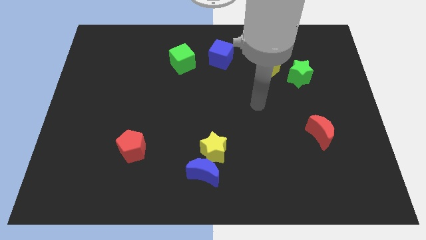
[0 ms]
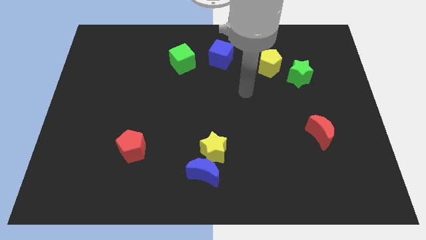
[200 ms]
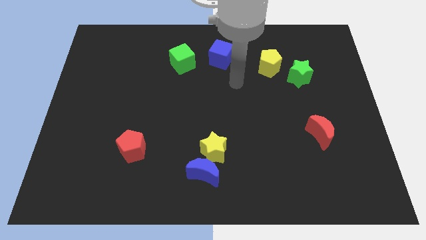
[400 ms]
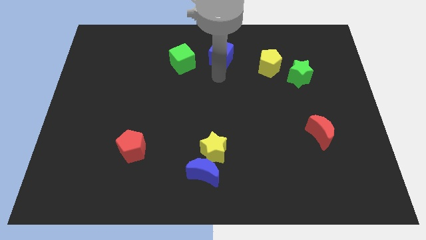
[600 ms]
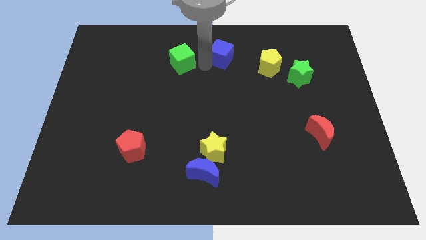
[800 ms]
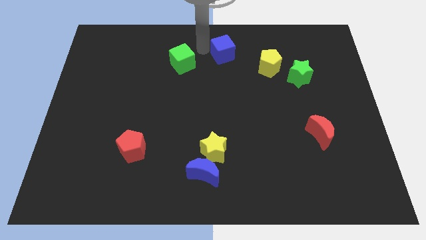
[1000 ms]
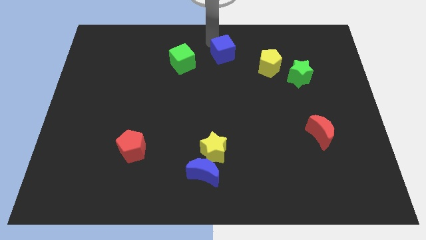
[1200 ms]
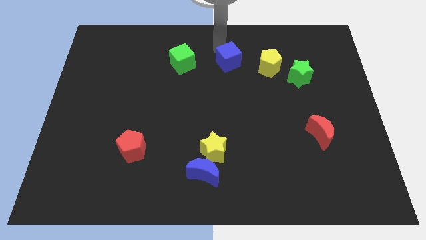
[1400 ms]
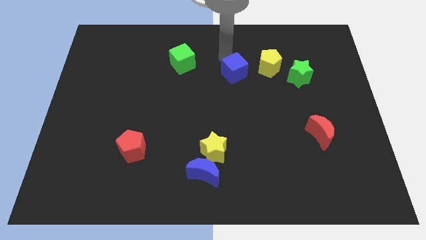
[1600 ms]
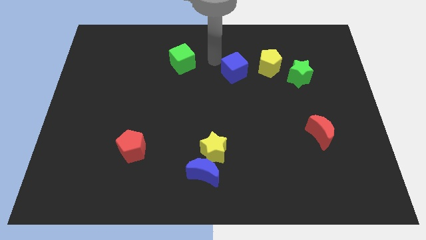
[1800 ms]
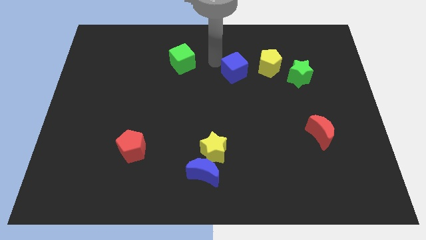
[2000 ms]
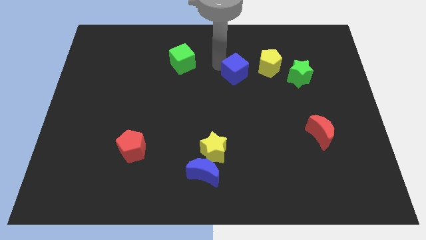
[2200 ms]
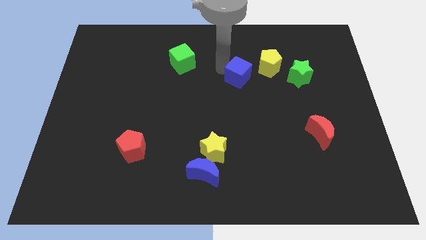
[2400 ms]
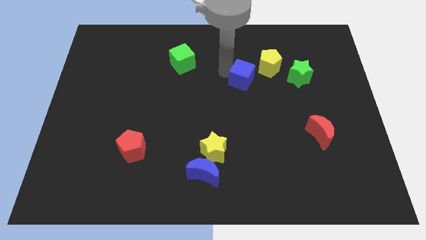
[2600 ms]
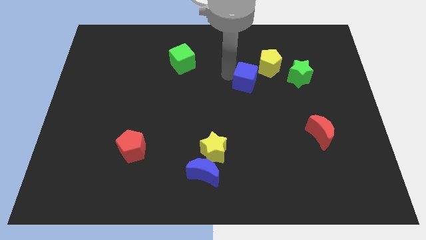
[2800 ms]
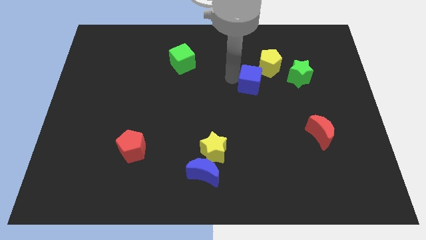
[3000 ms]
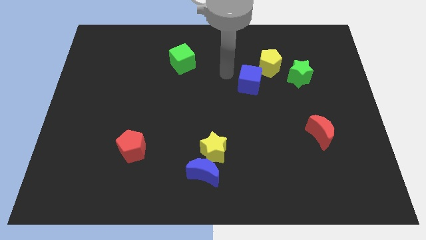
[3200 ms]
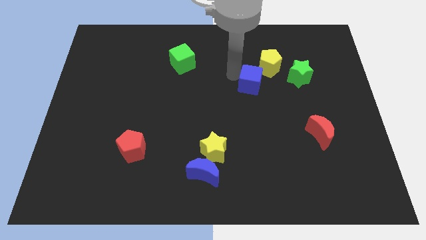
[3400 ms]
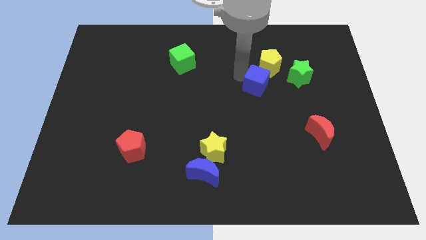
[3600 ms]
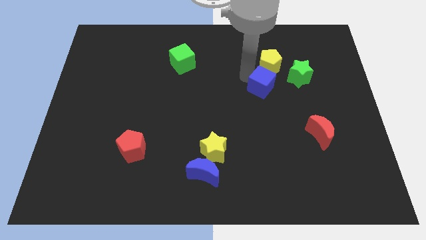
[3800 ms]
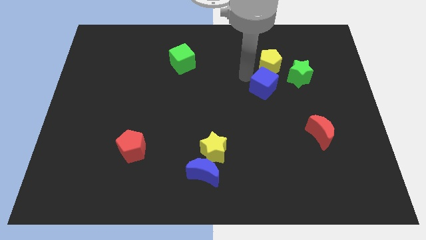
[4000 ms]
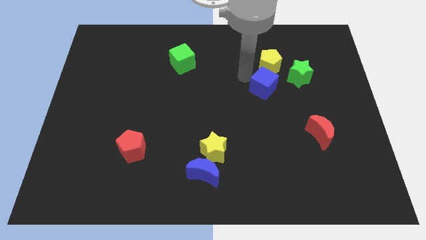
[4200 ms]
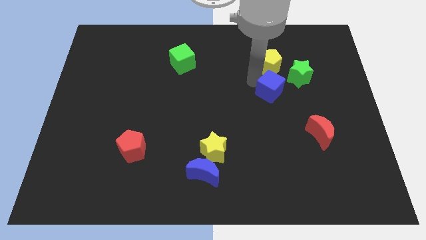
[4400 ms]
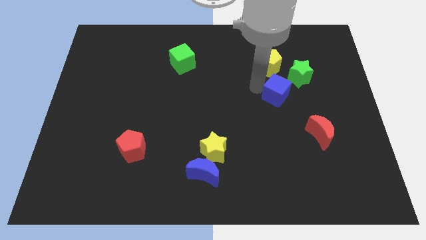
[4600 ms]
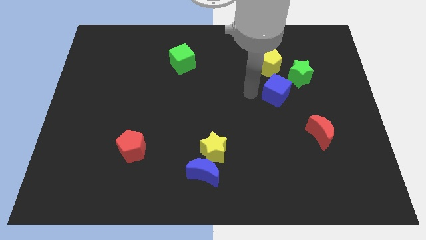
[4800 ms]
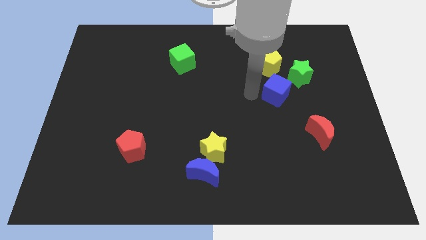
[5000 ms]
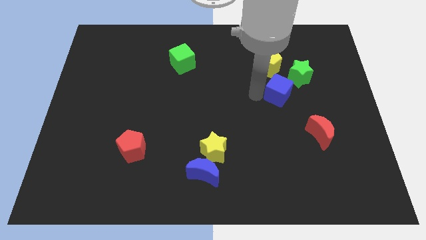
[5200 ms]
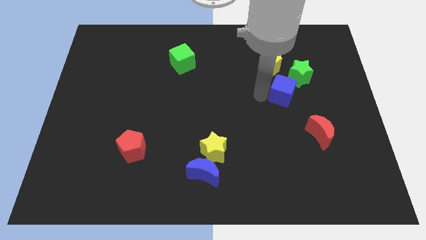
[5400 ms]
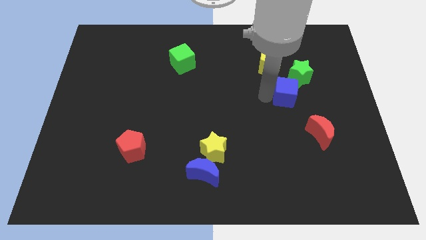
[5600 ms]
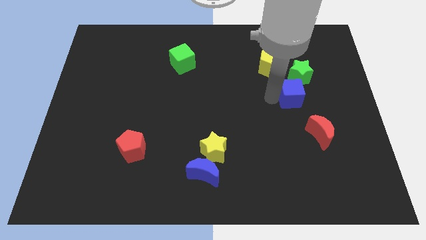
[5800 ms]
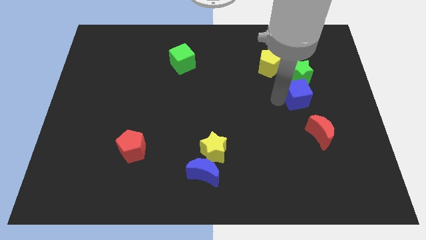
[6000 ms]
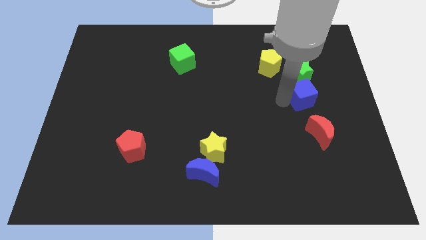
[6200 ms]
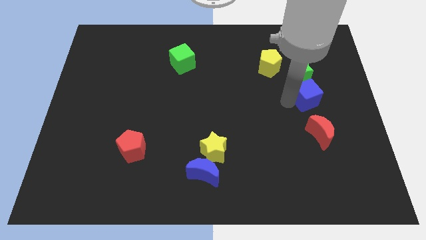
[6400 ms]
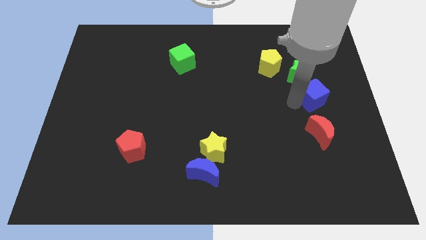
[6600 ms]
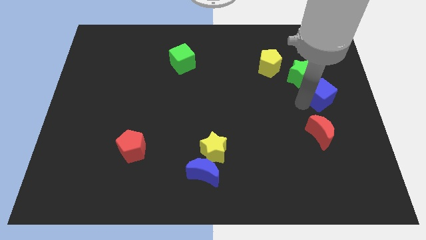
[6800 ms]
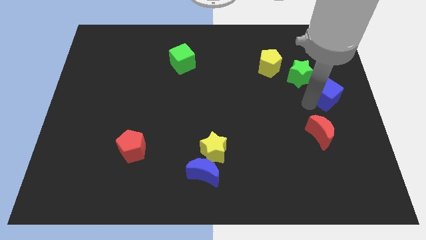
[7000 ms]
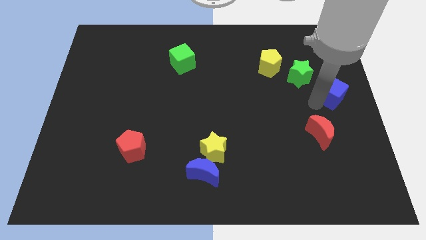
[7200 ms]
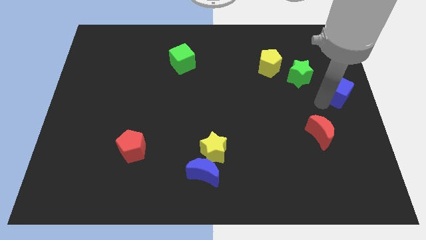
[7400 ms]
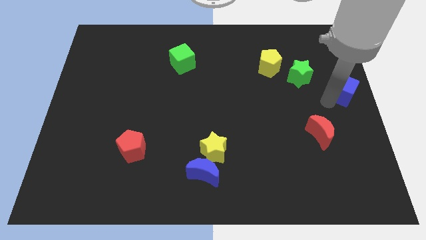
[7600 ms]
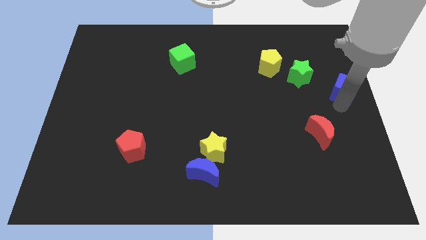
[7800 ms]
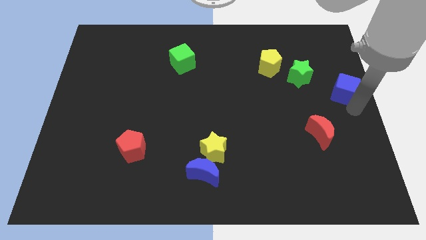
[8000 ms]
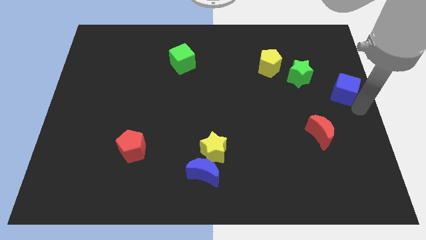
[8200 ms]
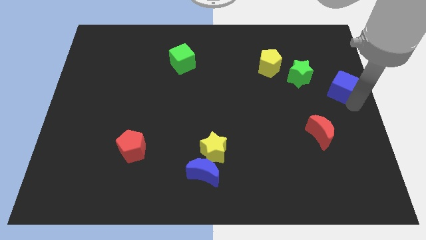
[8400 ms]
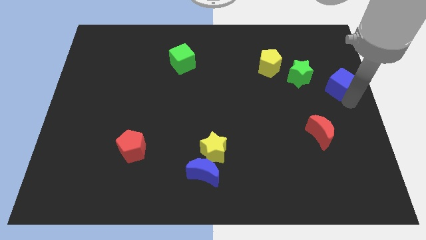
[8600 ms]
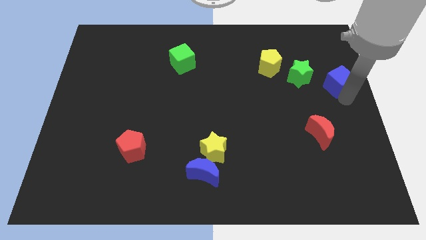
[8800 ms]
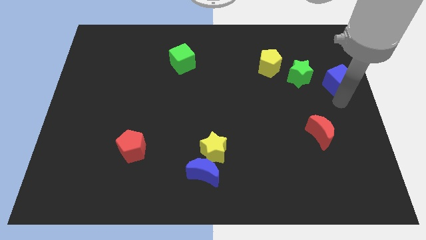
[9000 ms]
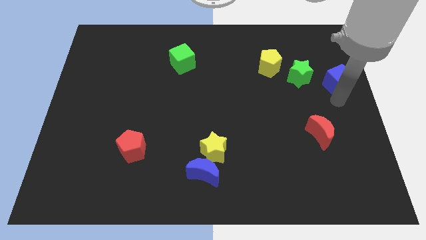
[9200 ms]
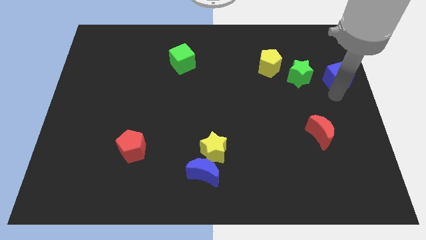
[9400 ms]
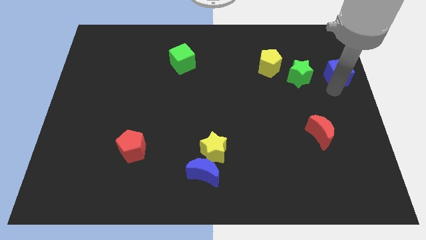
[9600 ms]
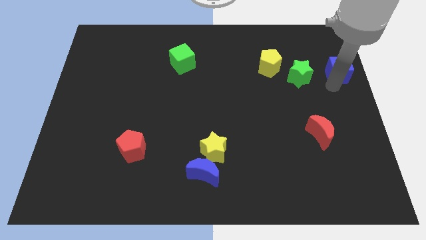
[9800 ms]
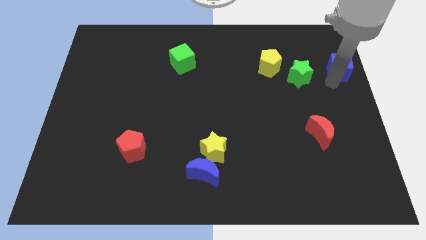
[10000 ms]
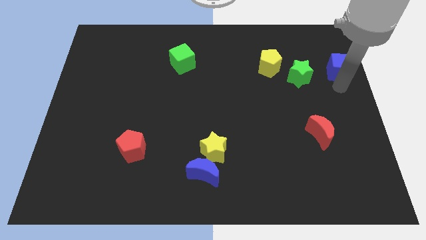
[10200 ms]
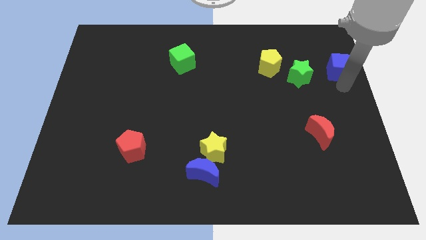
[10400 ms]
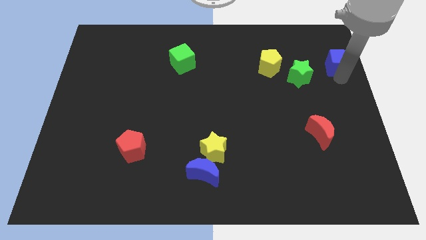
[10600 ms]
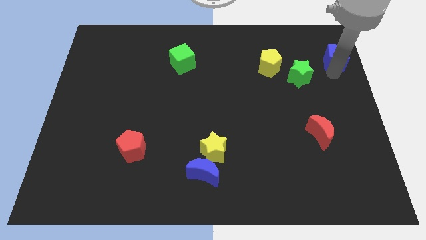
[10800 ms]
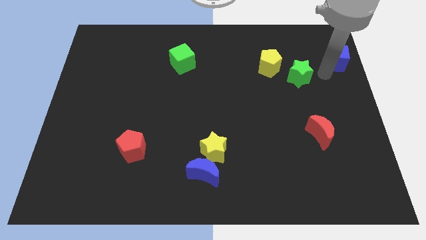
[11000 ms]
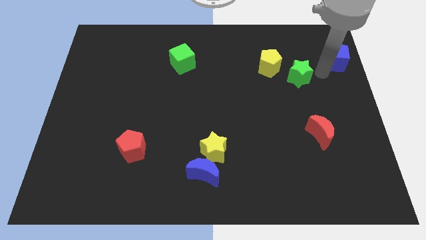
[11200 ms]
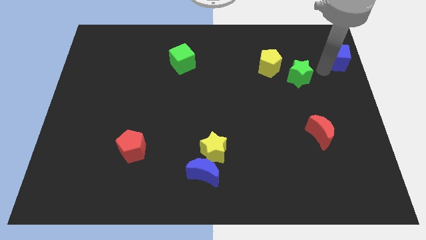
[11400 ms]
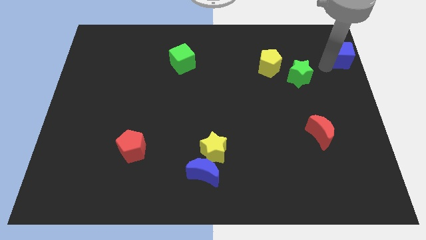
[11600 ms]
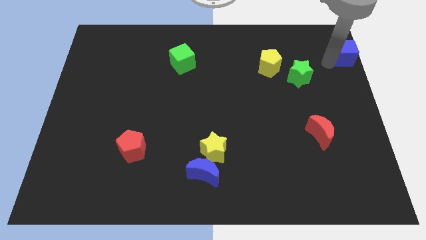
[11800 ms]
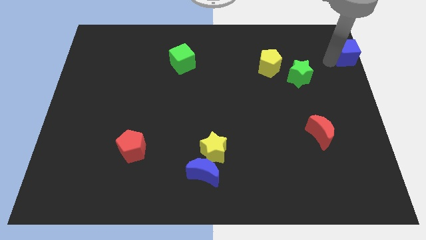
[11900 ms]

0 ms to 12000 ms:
move the blue cube to the top right corner

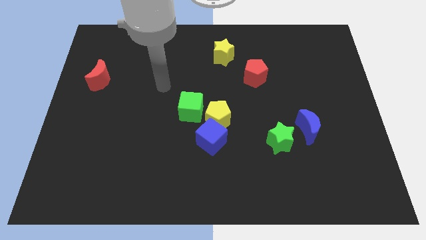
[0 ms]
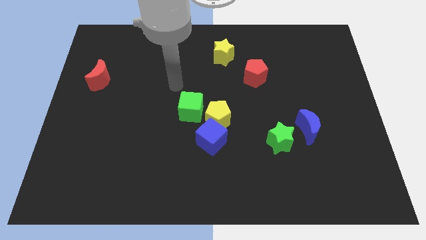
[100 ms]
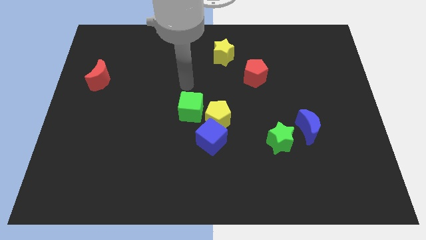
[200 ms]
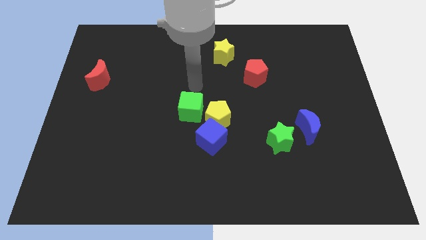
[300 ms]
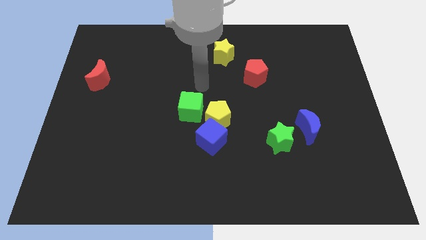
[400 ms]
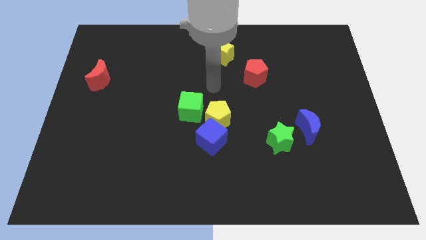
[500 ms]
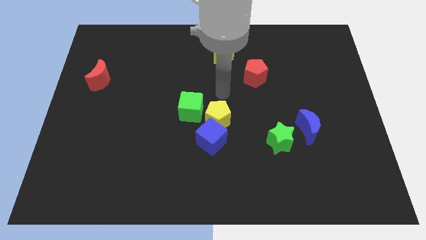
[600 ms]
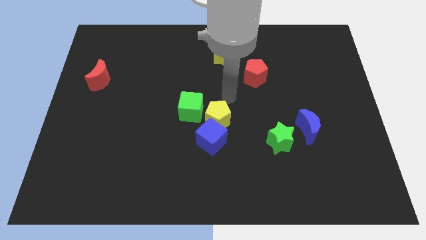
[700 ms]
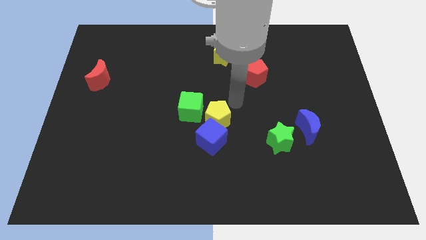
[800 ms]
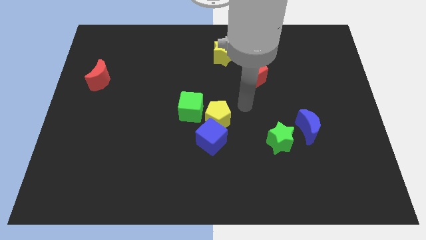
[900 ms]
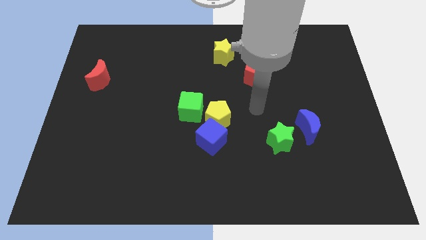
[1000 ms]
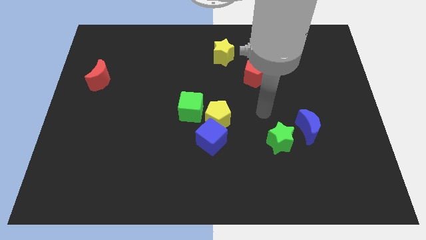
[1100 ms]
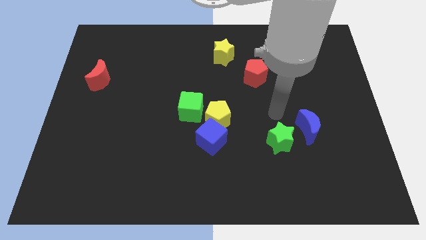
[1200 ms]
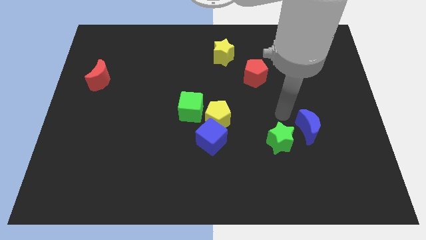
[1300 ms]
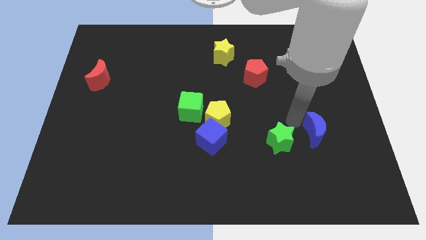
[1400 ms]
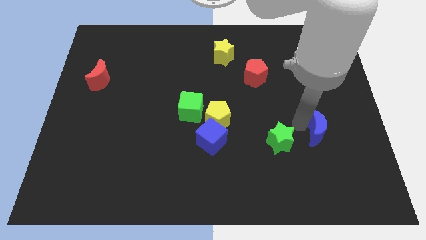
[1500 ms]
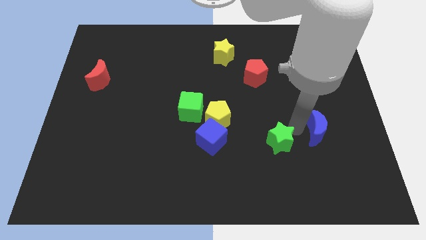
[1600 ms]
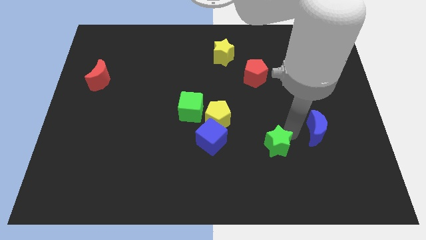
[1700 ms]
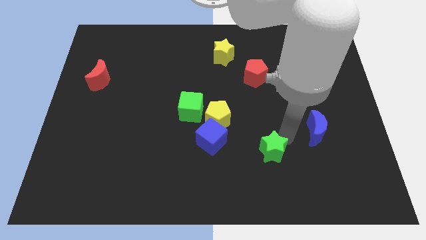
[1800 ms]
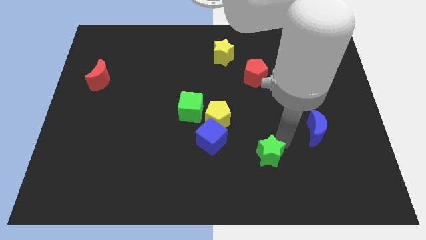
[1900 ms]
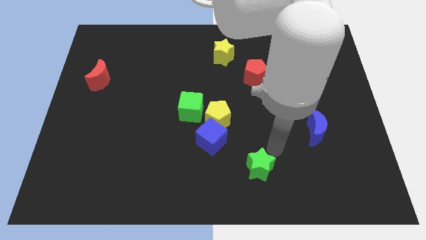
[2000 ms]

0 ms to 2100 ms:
put the green star to the bottom side
